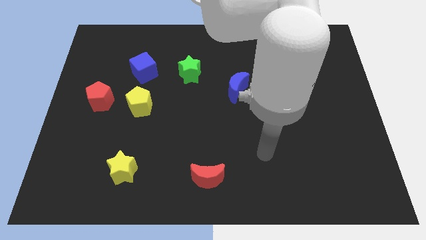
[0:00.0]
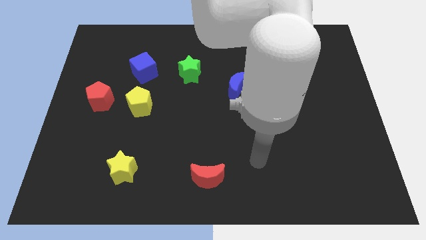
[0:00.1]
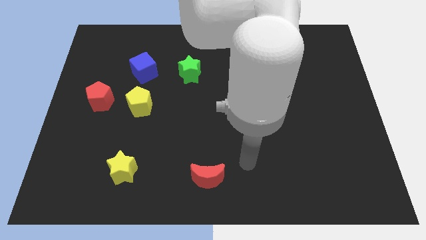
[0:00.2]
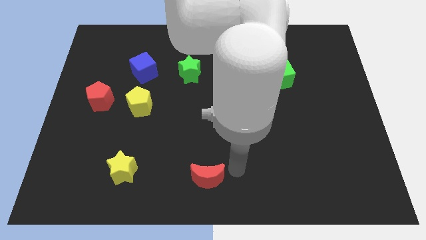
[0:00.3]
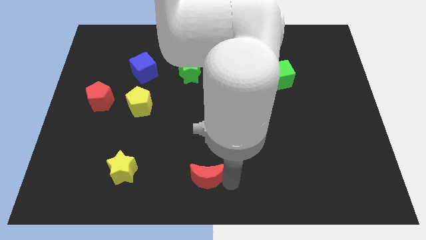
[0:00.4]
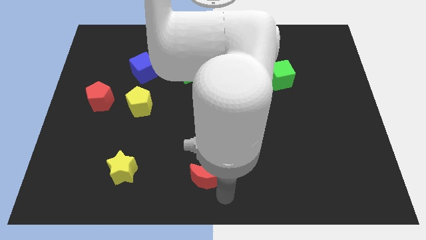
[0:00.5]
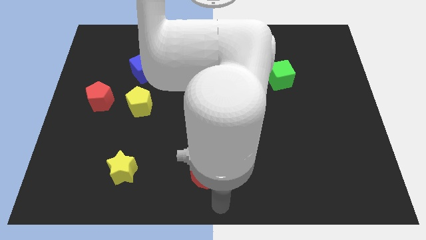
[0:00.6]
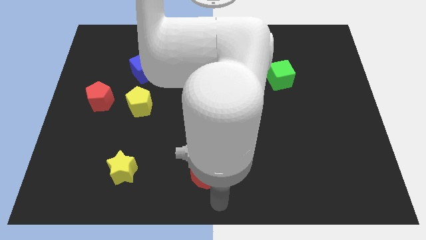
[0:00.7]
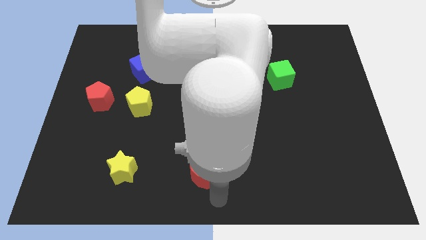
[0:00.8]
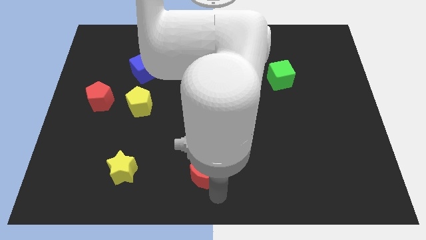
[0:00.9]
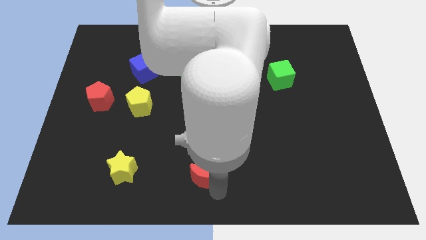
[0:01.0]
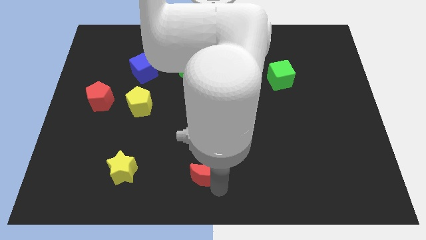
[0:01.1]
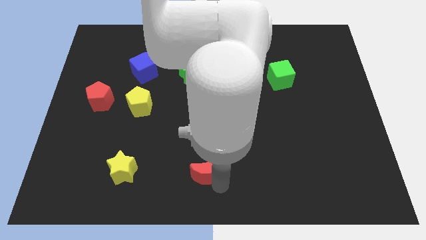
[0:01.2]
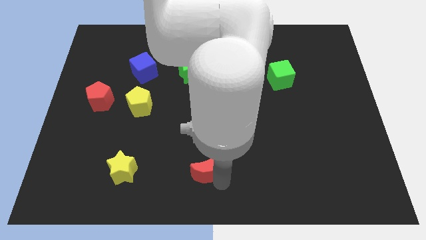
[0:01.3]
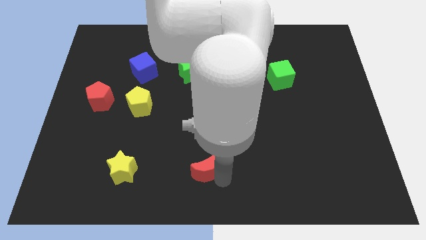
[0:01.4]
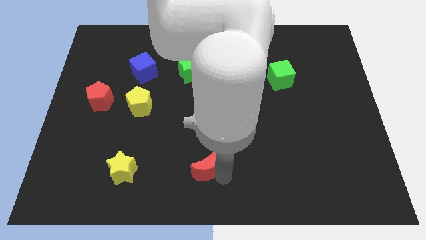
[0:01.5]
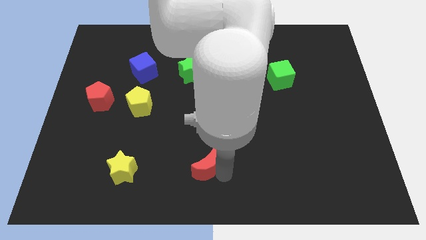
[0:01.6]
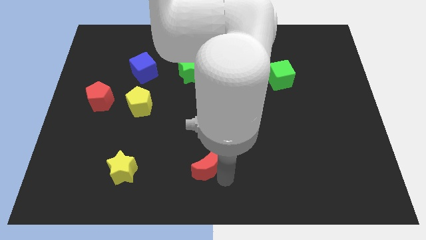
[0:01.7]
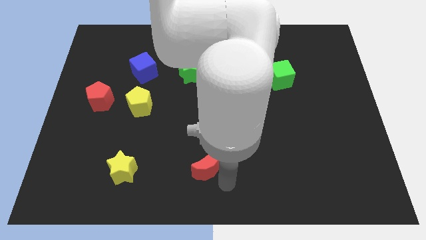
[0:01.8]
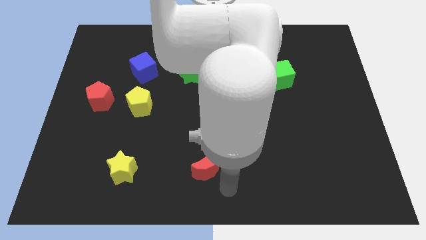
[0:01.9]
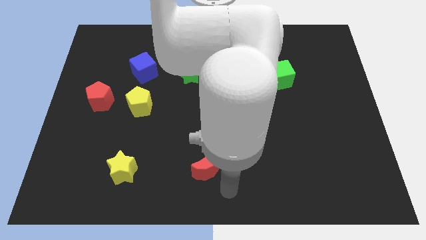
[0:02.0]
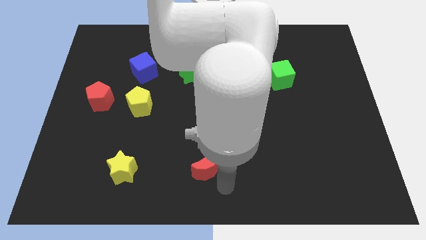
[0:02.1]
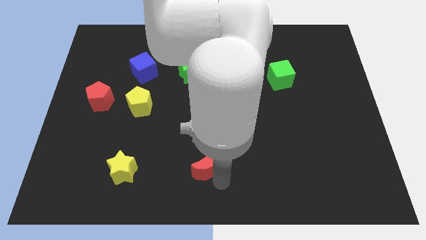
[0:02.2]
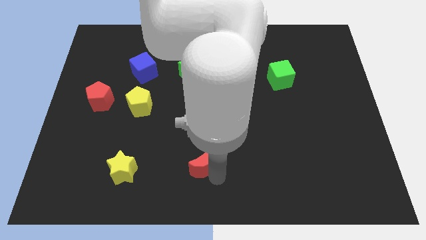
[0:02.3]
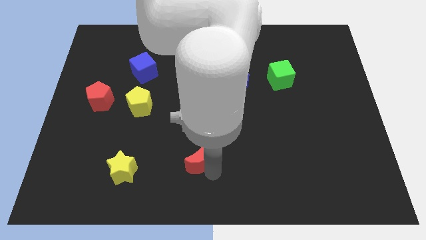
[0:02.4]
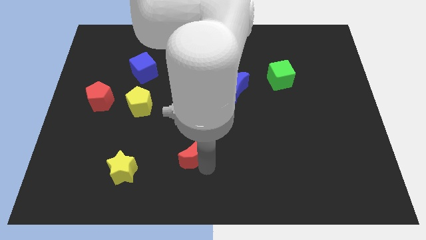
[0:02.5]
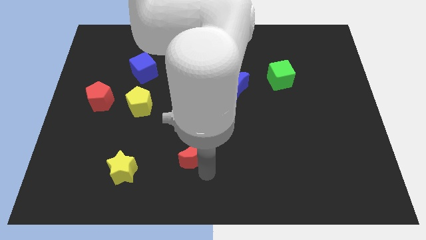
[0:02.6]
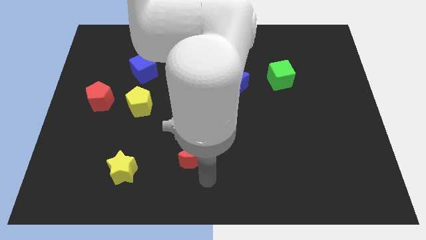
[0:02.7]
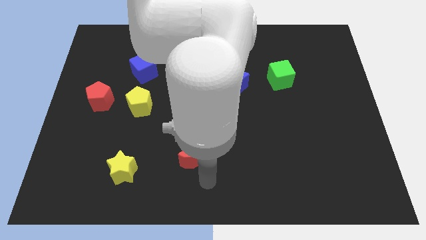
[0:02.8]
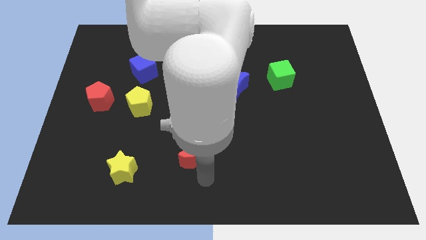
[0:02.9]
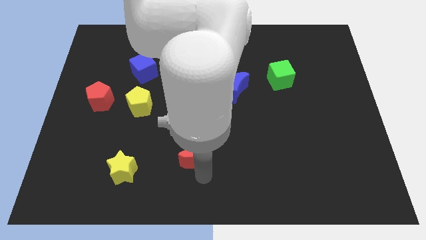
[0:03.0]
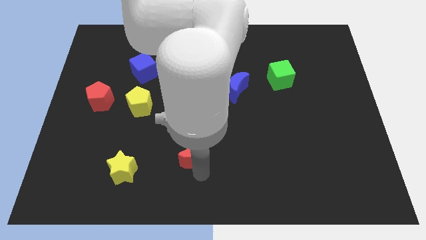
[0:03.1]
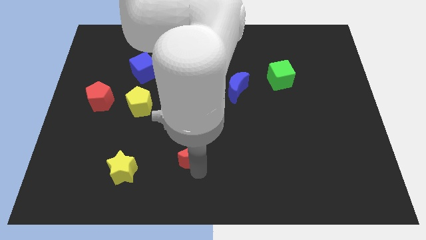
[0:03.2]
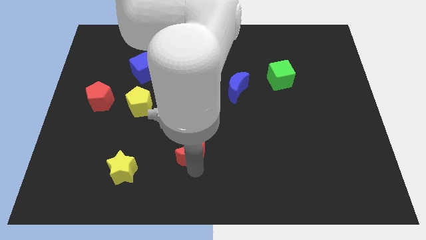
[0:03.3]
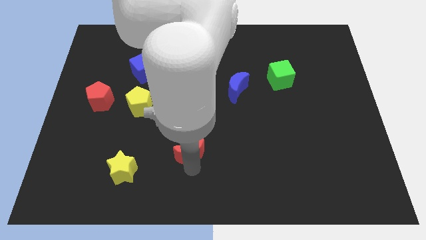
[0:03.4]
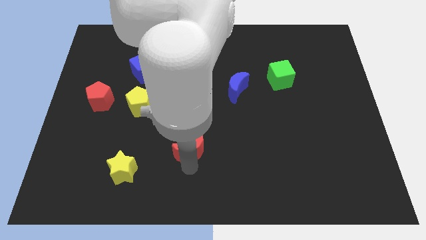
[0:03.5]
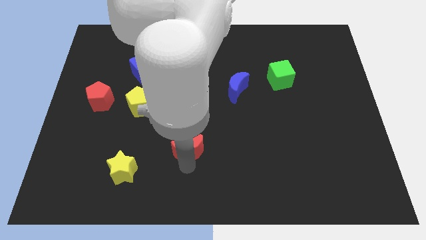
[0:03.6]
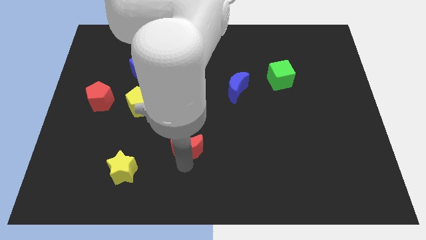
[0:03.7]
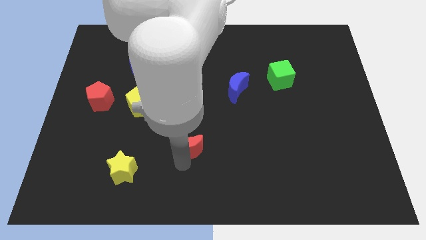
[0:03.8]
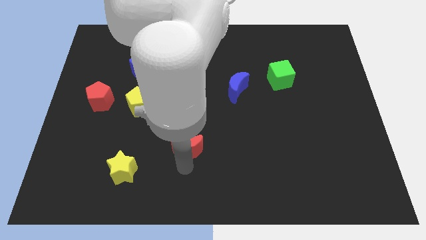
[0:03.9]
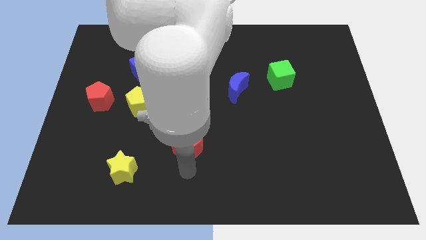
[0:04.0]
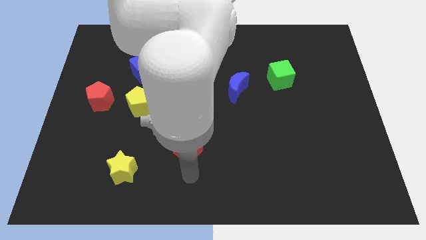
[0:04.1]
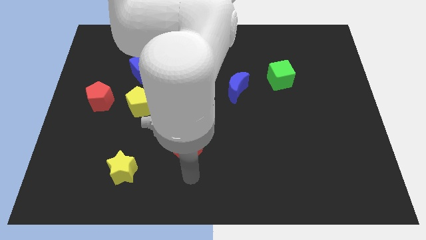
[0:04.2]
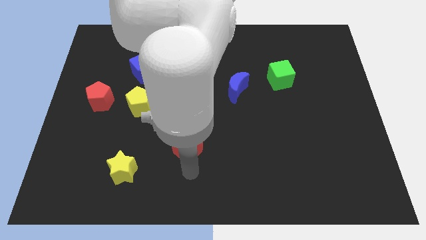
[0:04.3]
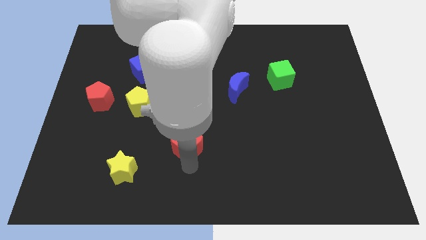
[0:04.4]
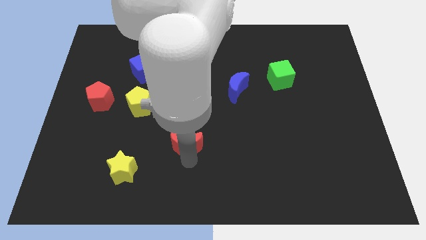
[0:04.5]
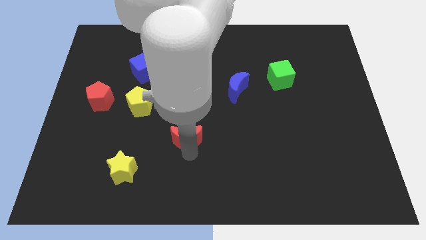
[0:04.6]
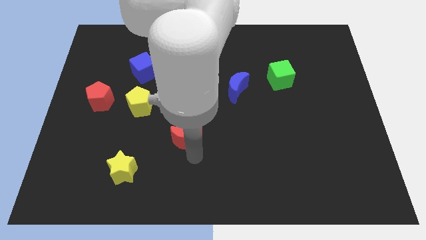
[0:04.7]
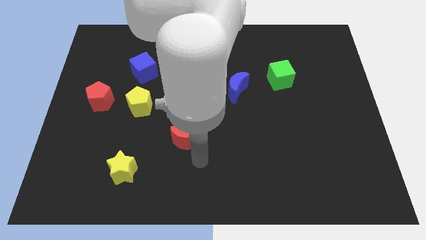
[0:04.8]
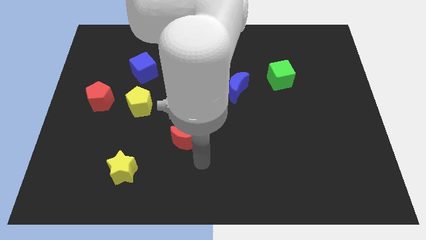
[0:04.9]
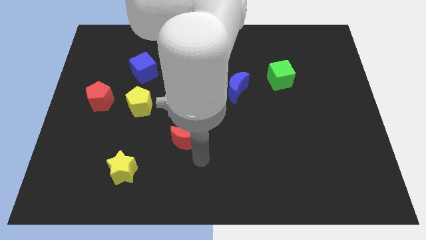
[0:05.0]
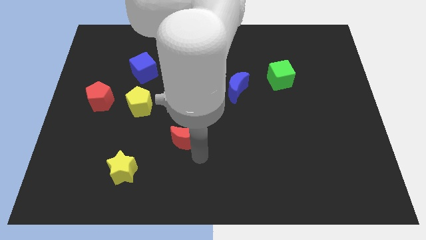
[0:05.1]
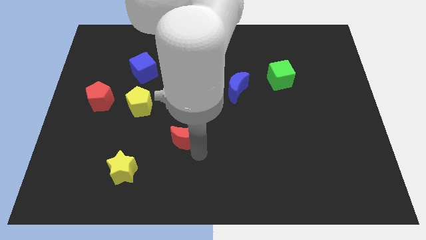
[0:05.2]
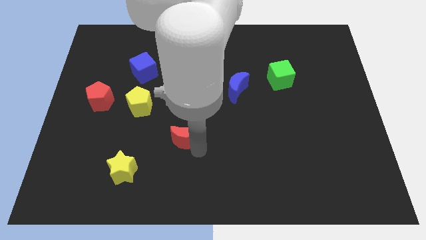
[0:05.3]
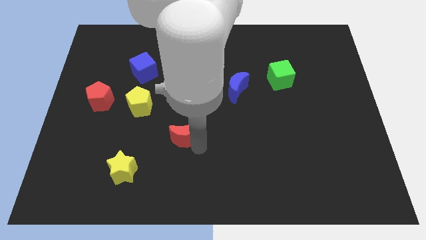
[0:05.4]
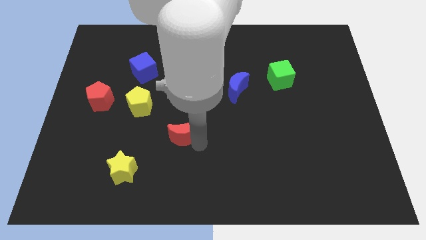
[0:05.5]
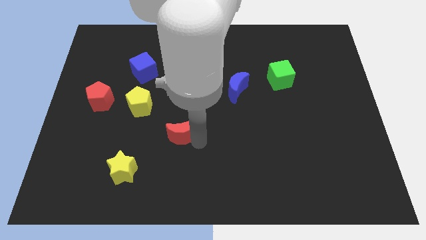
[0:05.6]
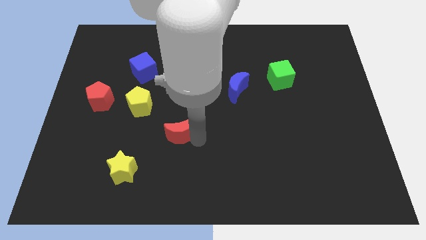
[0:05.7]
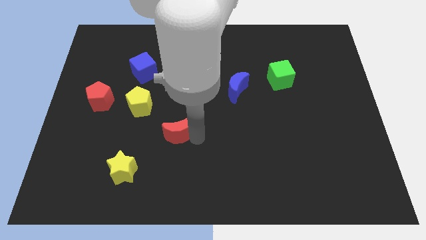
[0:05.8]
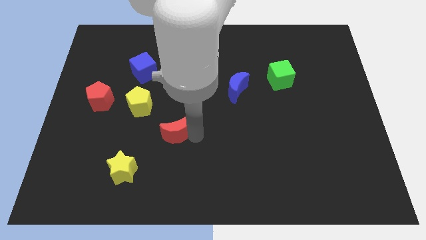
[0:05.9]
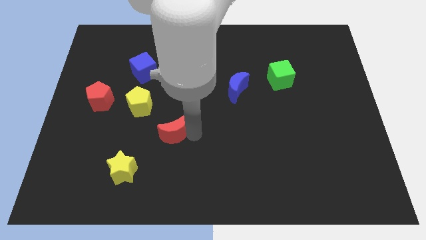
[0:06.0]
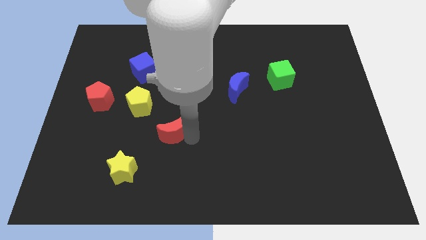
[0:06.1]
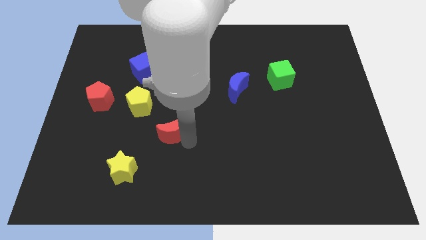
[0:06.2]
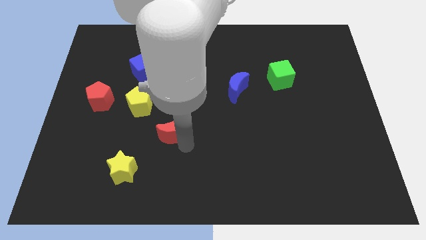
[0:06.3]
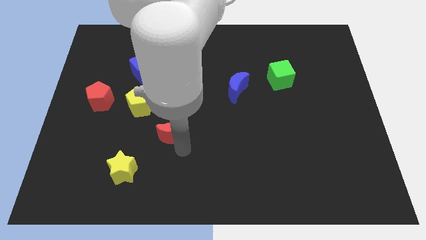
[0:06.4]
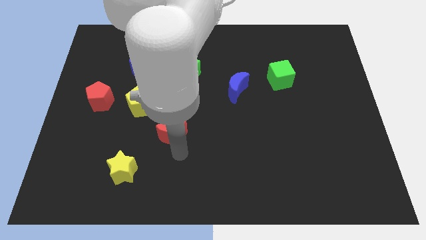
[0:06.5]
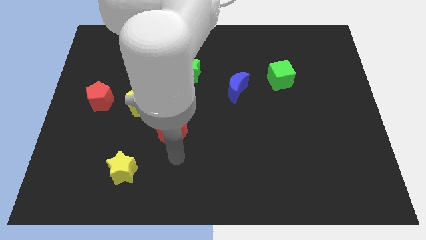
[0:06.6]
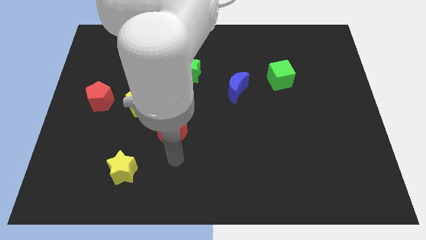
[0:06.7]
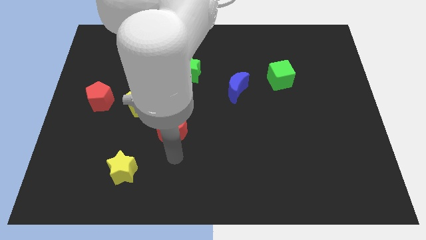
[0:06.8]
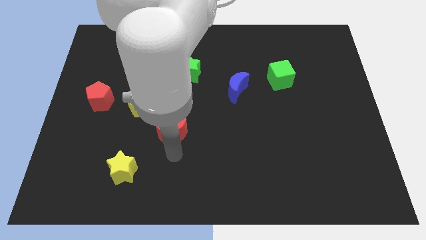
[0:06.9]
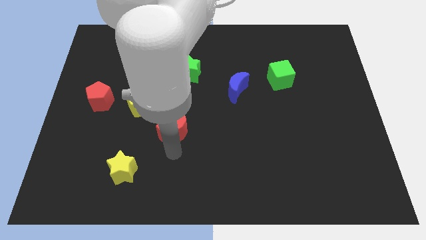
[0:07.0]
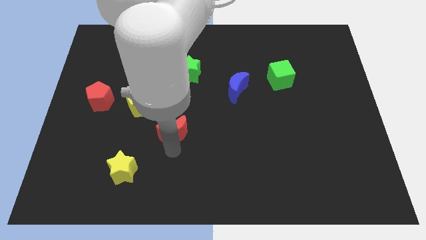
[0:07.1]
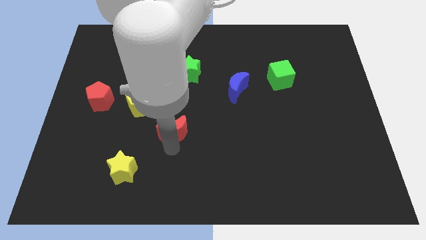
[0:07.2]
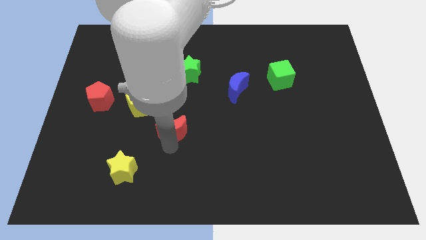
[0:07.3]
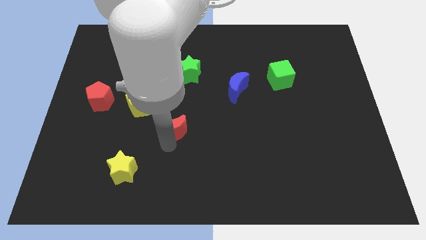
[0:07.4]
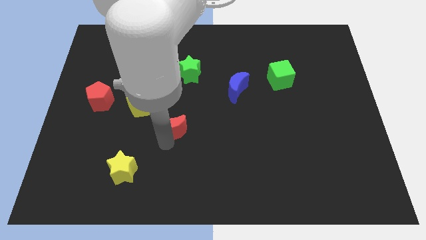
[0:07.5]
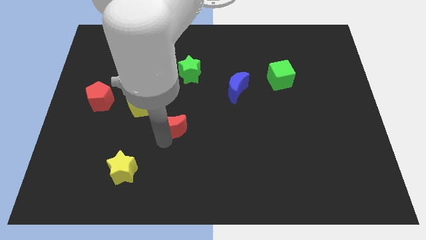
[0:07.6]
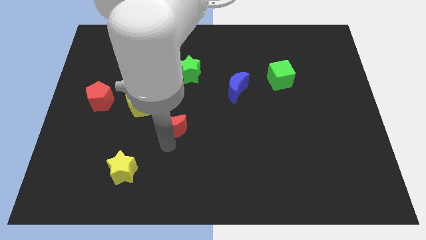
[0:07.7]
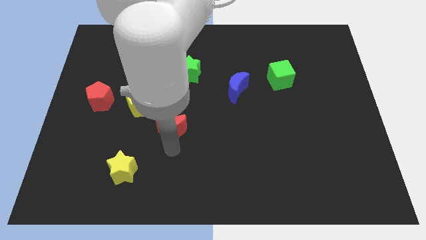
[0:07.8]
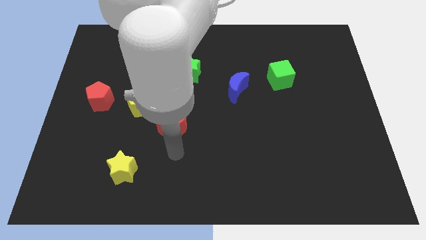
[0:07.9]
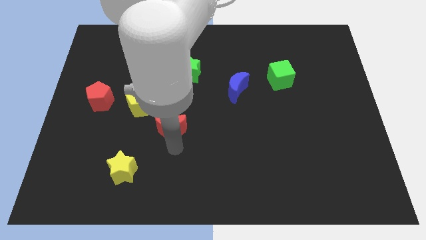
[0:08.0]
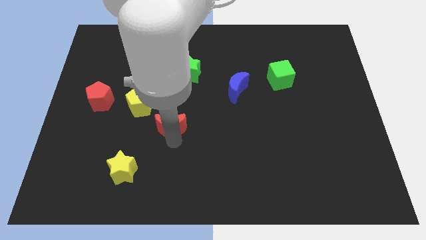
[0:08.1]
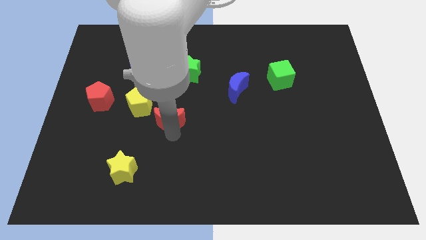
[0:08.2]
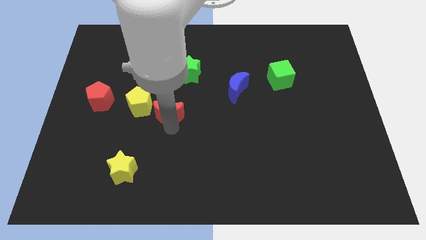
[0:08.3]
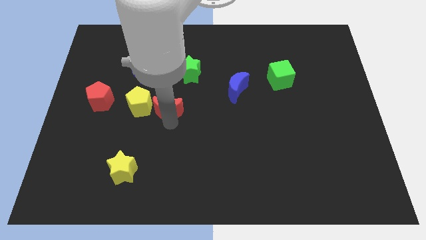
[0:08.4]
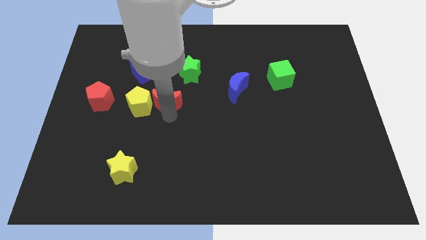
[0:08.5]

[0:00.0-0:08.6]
put the red moon to the bottom right of the blue cube
